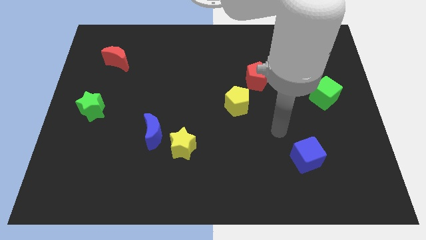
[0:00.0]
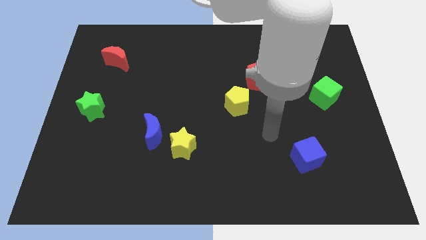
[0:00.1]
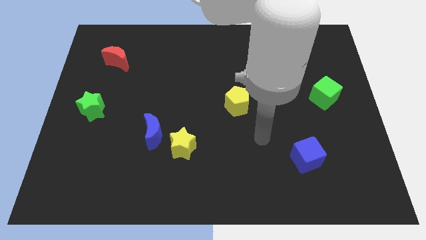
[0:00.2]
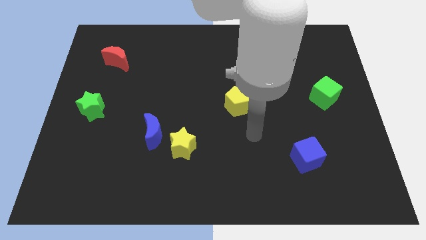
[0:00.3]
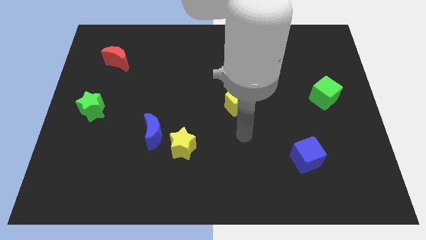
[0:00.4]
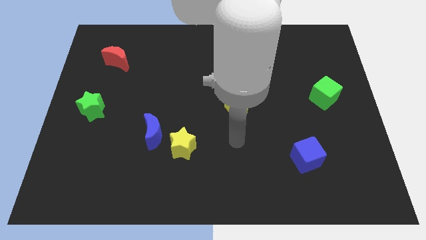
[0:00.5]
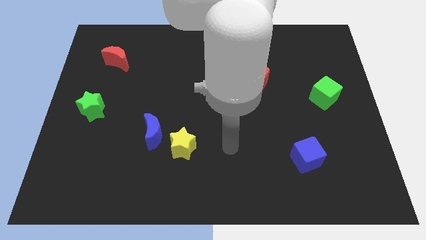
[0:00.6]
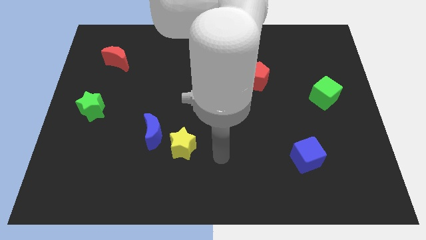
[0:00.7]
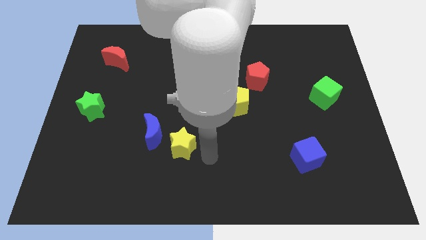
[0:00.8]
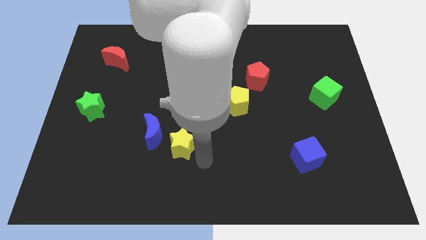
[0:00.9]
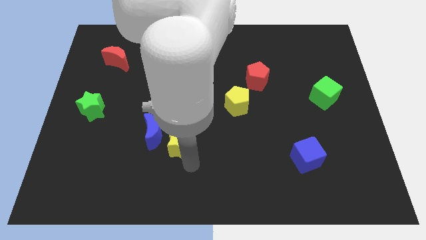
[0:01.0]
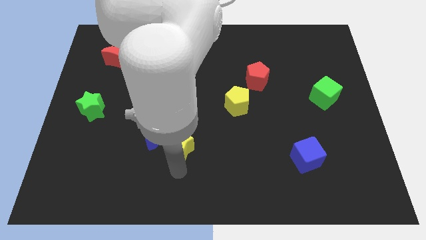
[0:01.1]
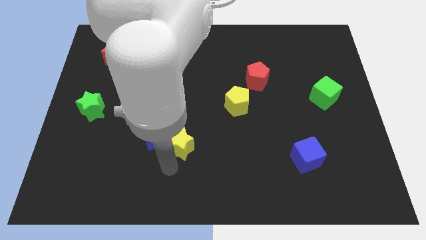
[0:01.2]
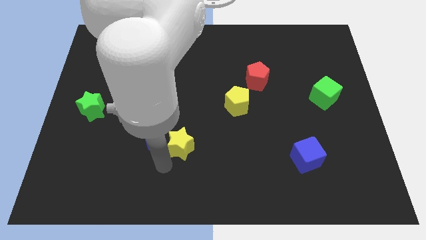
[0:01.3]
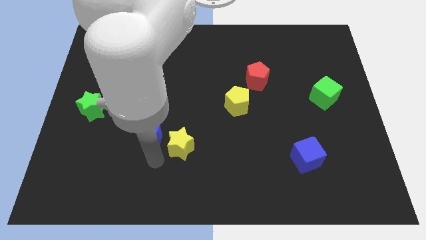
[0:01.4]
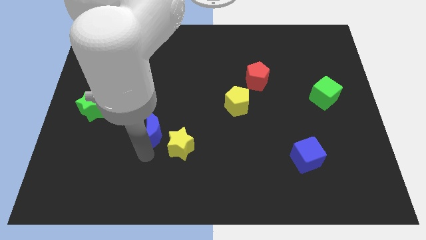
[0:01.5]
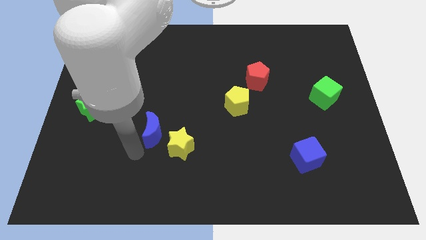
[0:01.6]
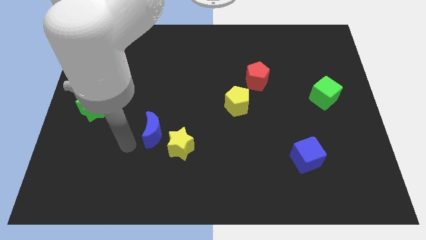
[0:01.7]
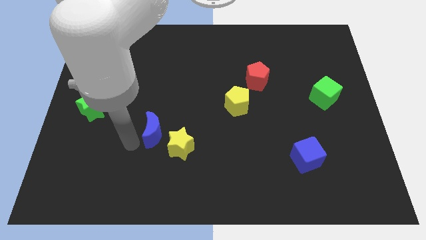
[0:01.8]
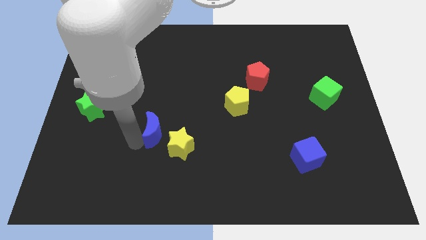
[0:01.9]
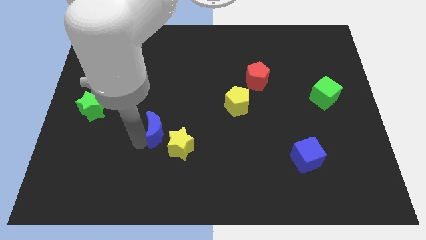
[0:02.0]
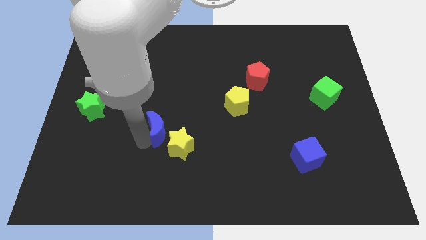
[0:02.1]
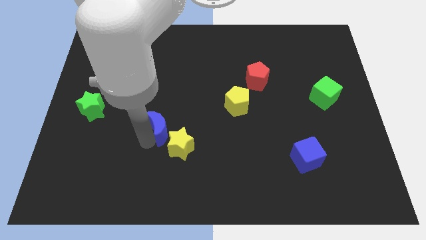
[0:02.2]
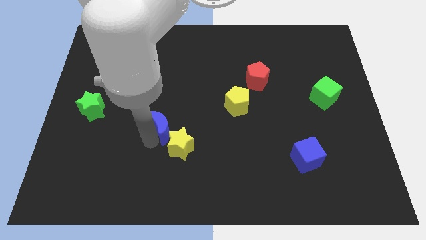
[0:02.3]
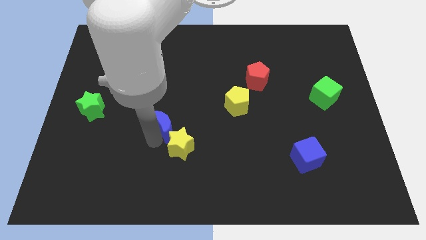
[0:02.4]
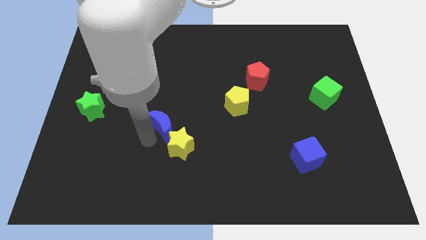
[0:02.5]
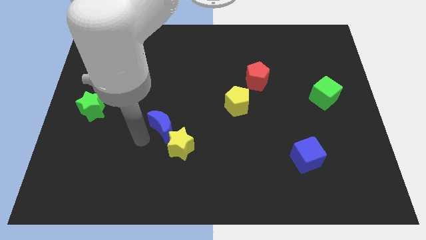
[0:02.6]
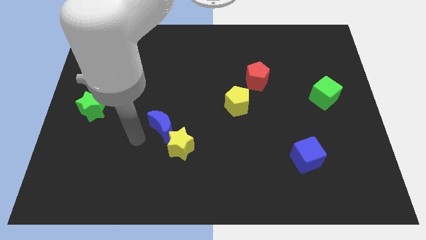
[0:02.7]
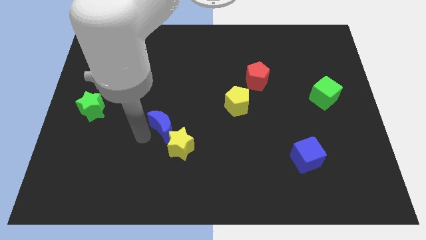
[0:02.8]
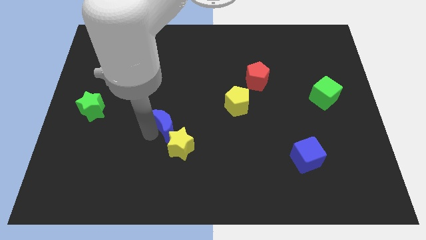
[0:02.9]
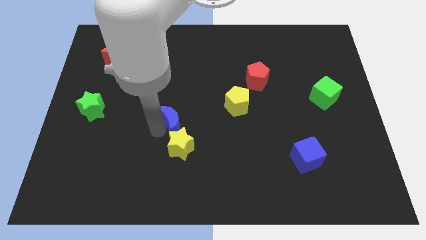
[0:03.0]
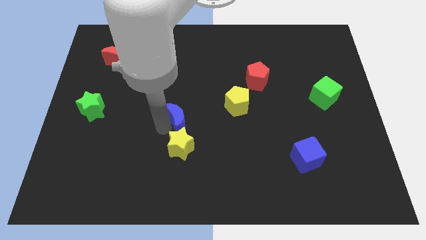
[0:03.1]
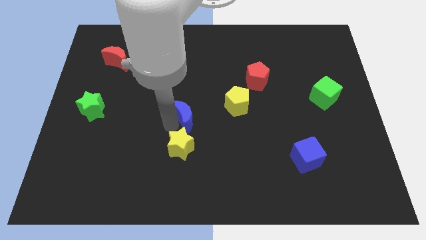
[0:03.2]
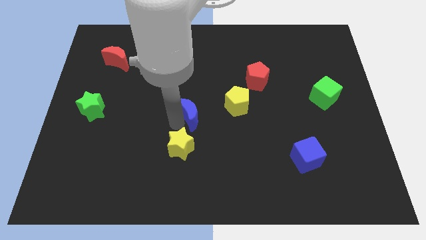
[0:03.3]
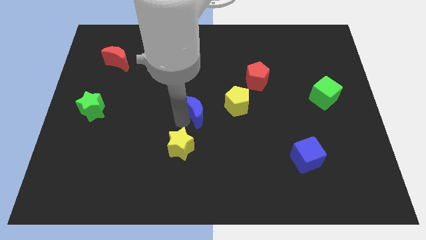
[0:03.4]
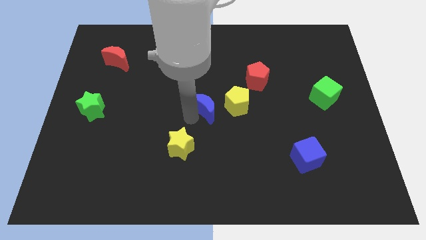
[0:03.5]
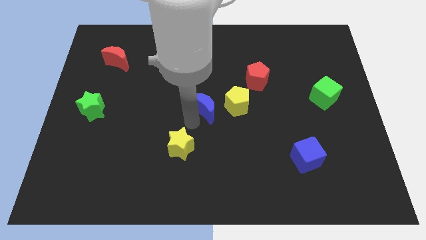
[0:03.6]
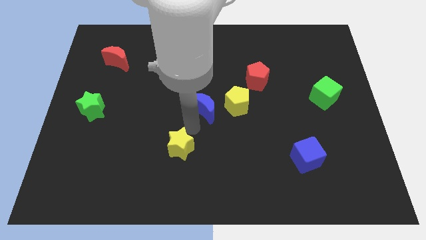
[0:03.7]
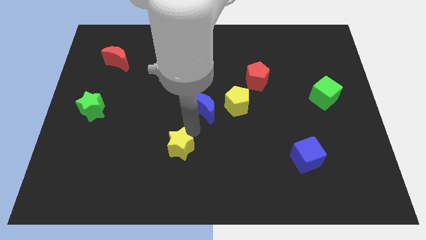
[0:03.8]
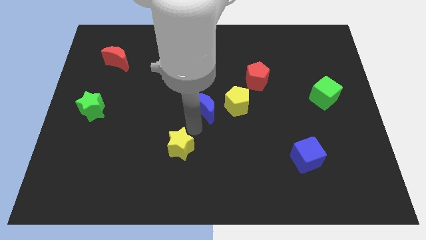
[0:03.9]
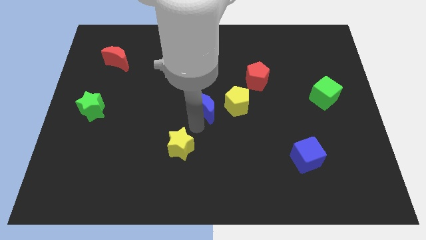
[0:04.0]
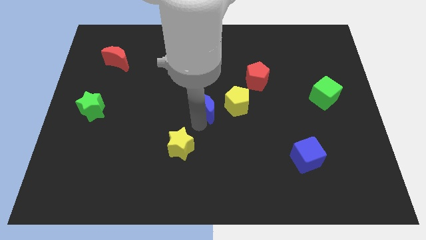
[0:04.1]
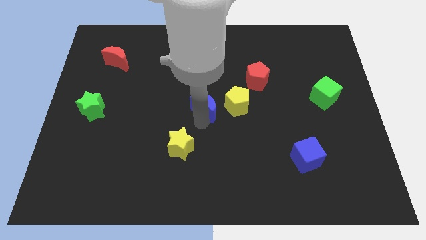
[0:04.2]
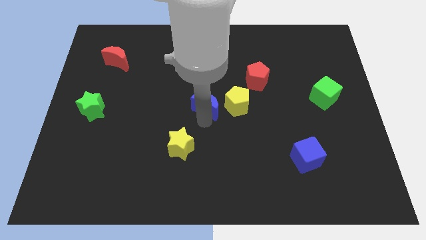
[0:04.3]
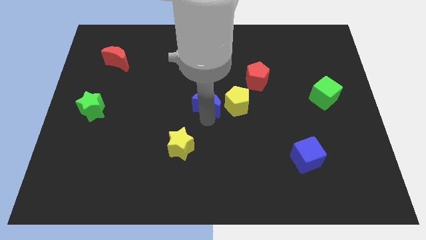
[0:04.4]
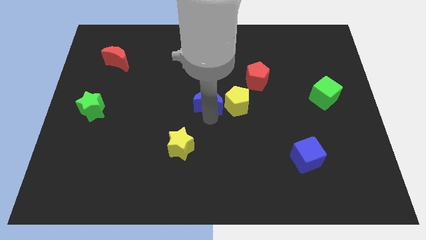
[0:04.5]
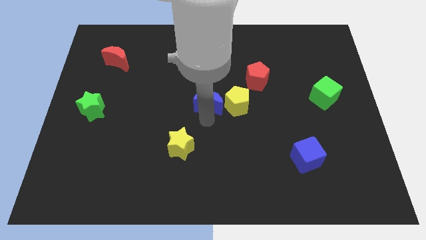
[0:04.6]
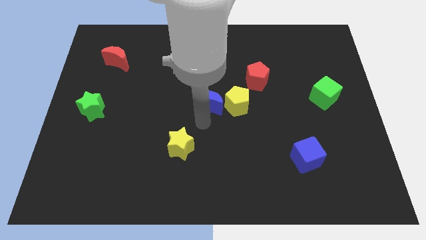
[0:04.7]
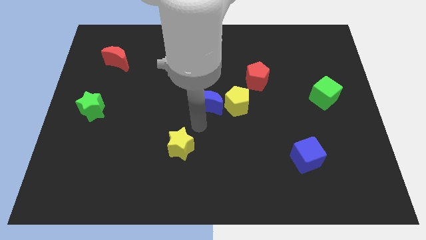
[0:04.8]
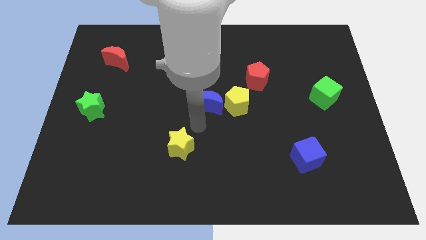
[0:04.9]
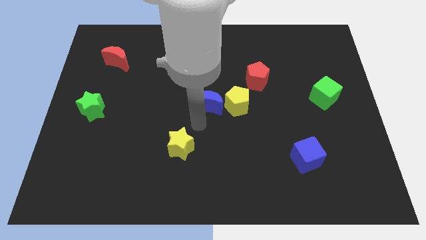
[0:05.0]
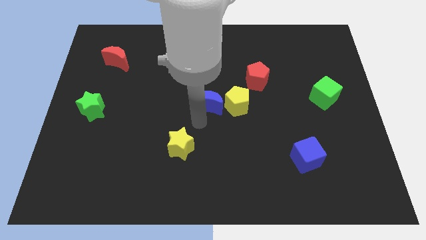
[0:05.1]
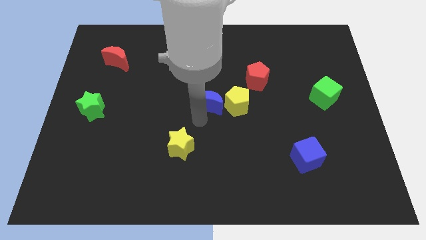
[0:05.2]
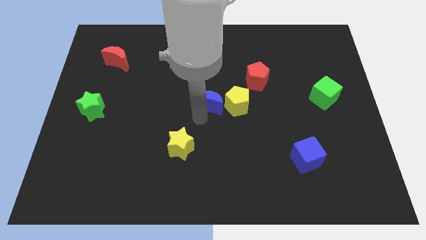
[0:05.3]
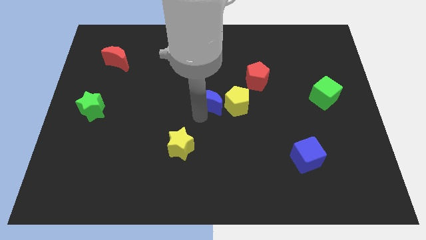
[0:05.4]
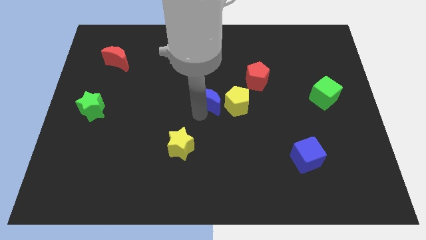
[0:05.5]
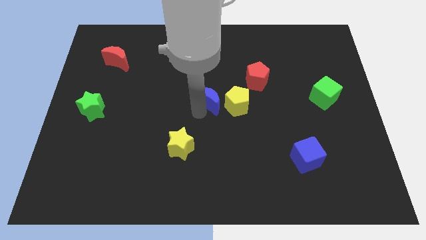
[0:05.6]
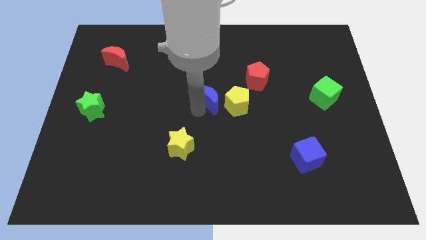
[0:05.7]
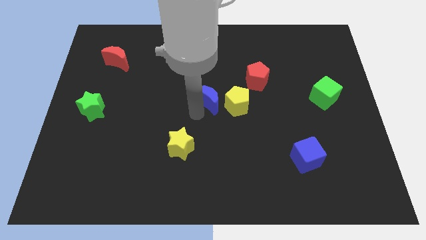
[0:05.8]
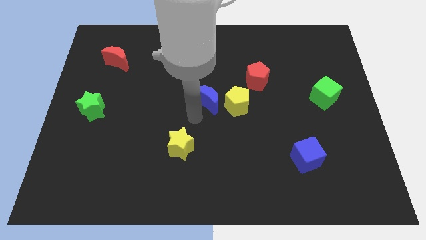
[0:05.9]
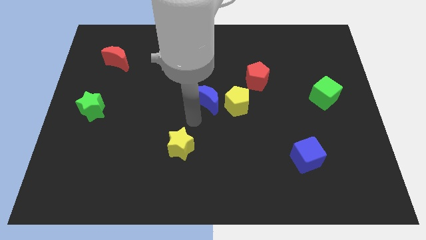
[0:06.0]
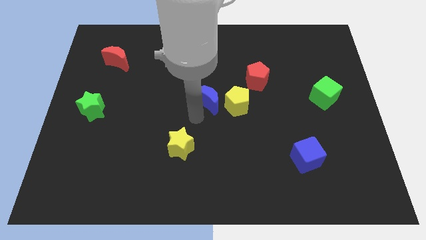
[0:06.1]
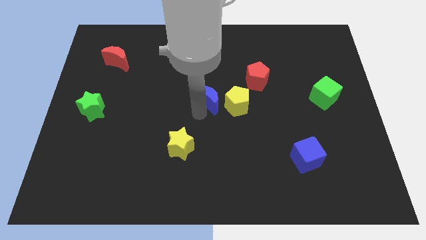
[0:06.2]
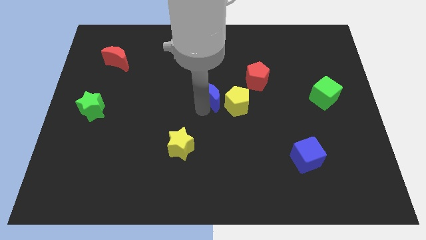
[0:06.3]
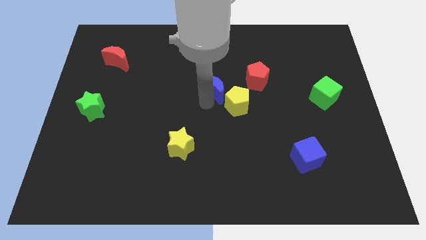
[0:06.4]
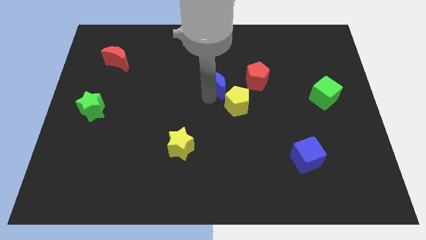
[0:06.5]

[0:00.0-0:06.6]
move the blue moon up and then to the right

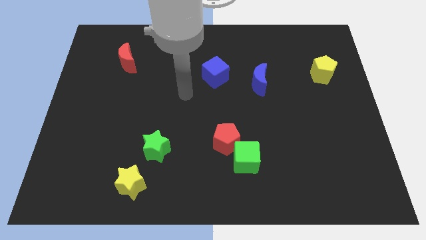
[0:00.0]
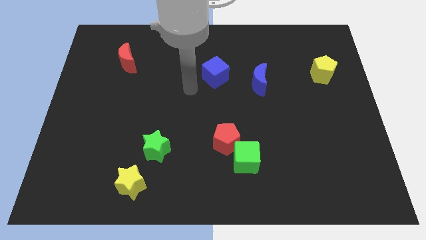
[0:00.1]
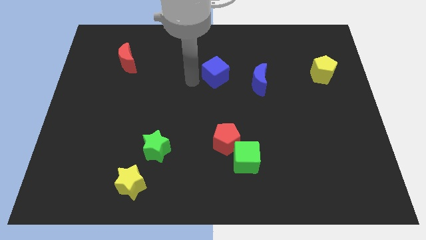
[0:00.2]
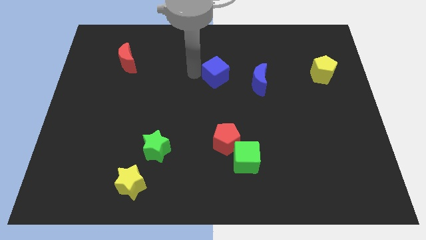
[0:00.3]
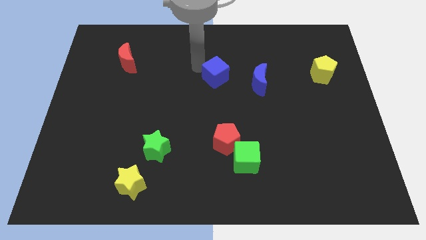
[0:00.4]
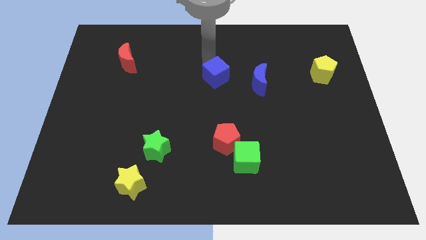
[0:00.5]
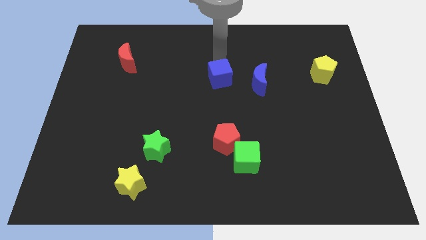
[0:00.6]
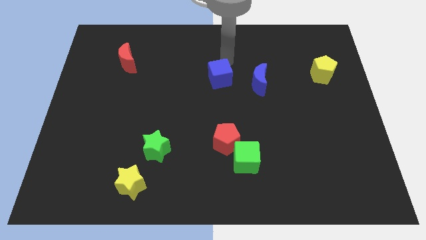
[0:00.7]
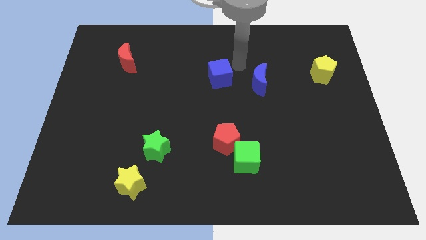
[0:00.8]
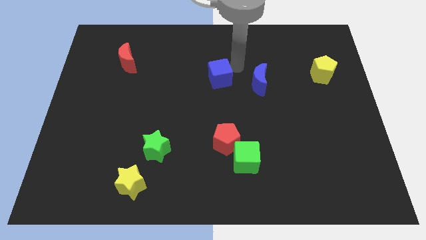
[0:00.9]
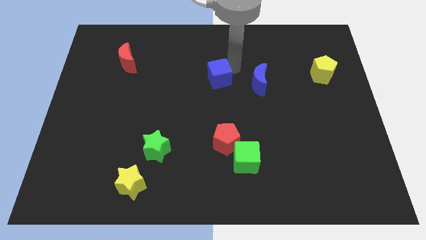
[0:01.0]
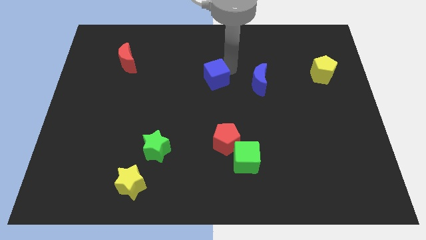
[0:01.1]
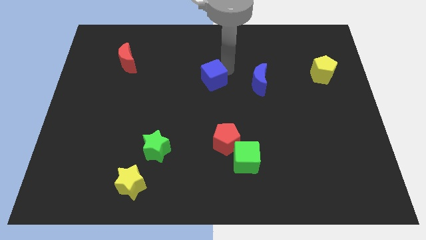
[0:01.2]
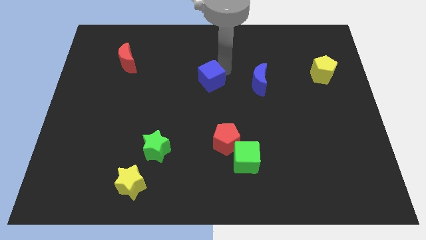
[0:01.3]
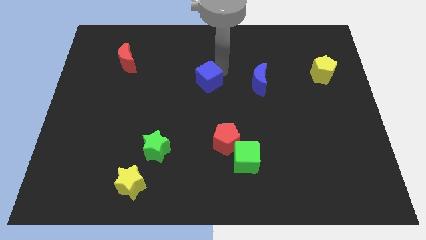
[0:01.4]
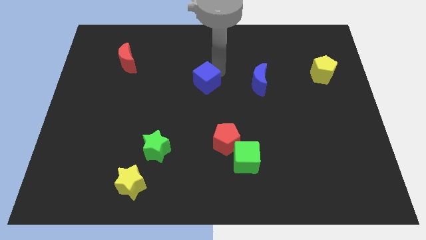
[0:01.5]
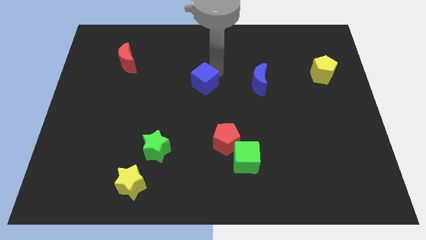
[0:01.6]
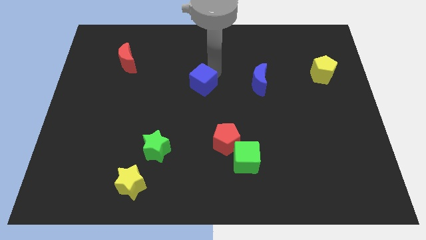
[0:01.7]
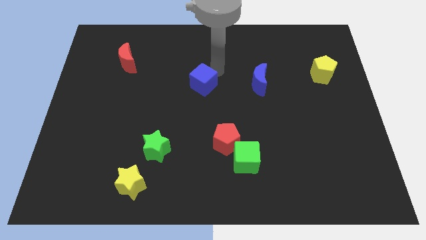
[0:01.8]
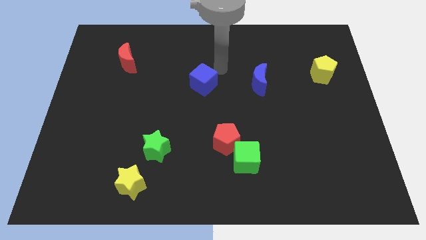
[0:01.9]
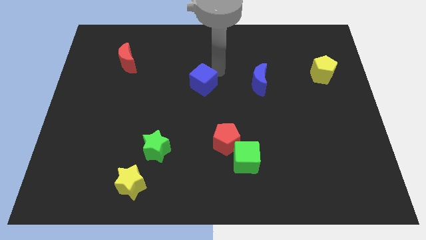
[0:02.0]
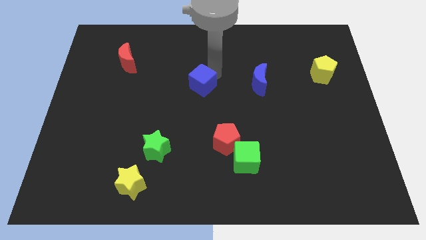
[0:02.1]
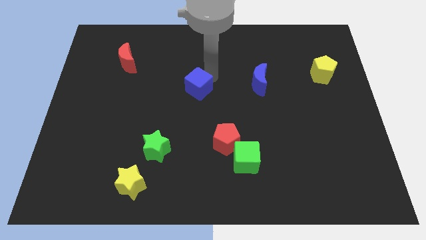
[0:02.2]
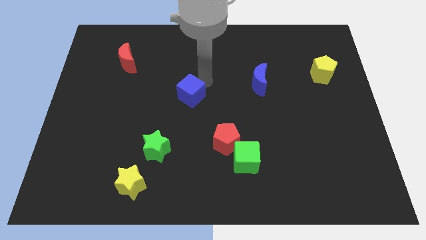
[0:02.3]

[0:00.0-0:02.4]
move the blue cube downwards and to the left diagonally somewhat
